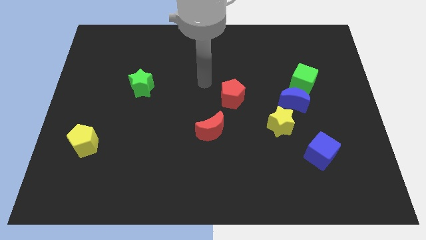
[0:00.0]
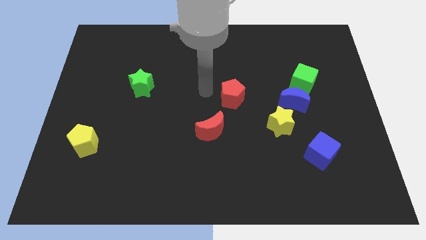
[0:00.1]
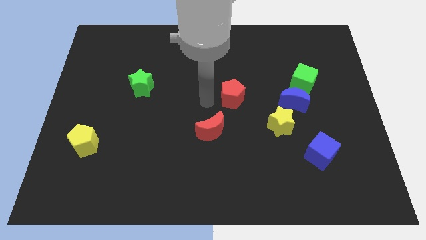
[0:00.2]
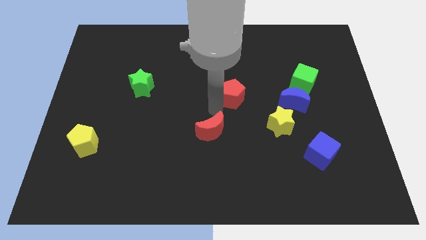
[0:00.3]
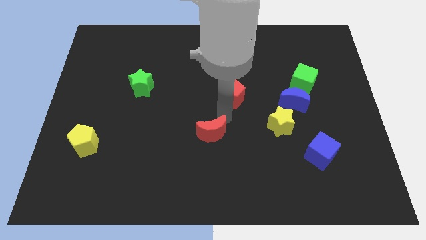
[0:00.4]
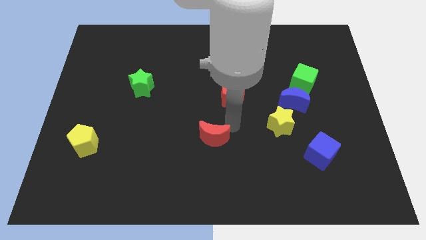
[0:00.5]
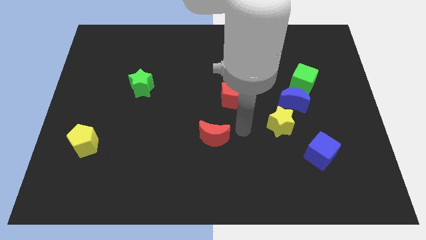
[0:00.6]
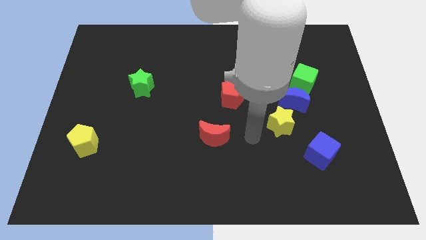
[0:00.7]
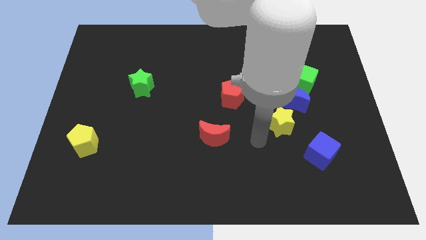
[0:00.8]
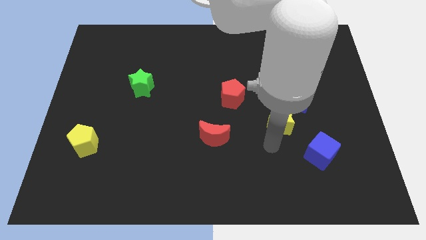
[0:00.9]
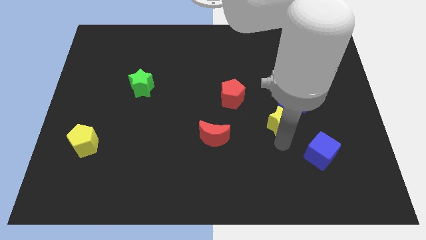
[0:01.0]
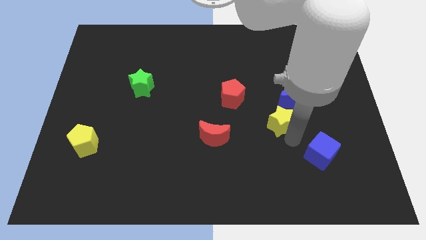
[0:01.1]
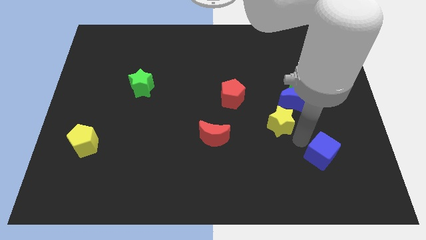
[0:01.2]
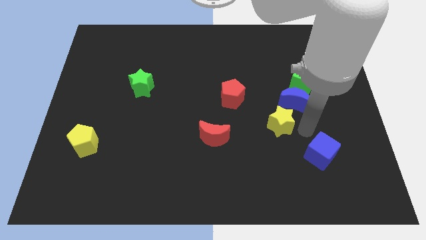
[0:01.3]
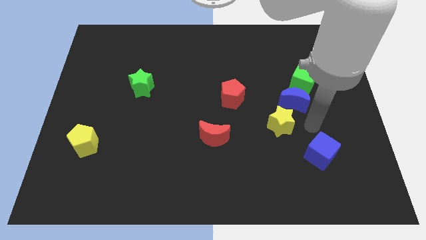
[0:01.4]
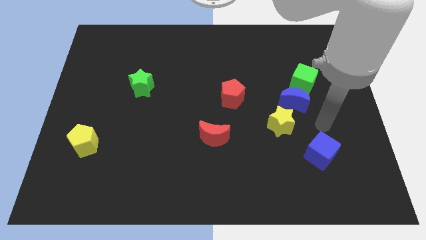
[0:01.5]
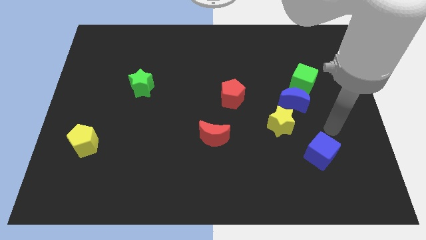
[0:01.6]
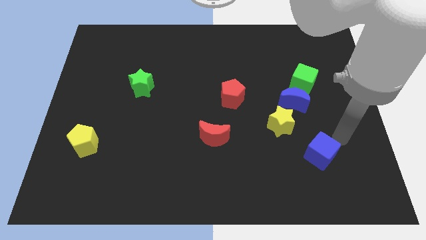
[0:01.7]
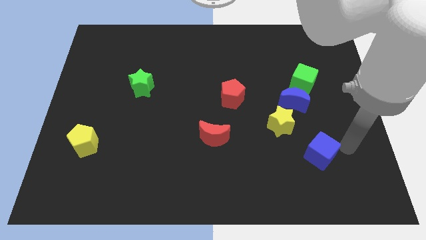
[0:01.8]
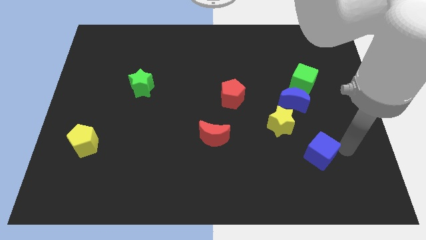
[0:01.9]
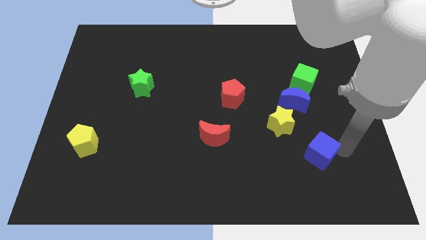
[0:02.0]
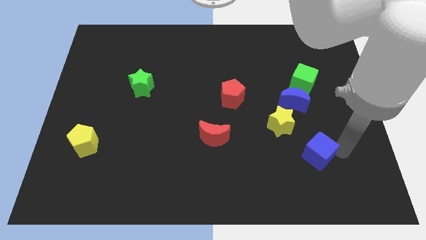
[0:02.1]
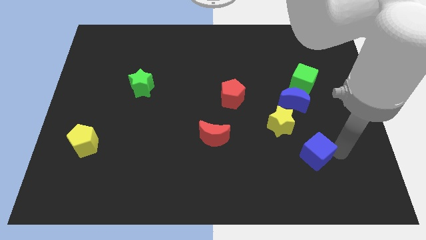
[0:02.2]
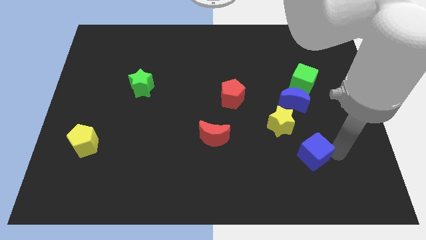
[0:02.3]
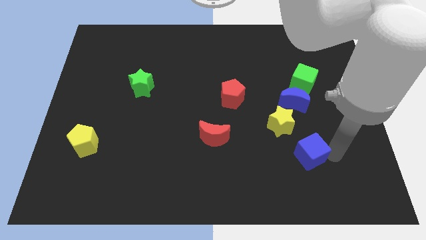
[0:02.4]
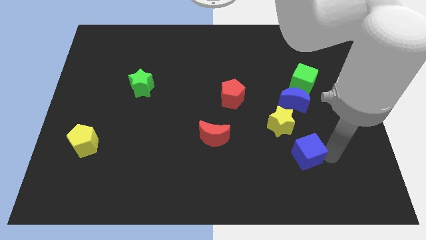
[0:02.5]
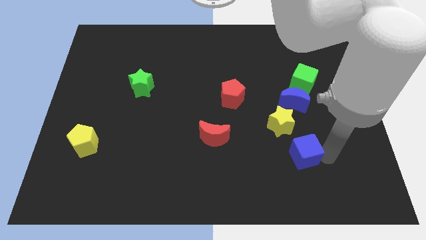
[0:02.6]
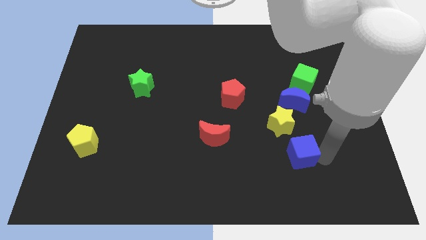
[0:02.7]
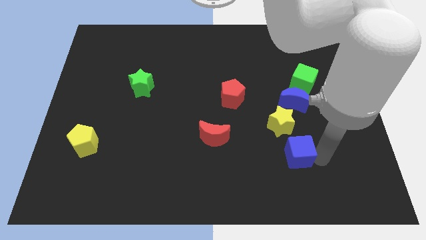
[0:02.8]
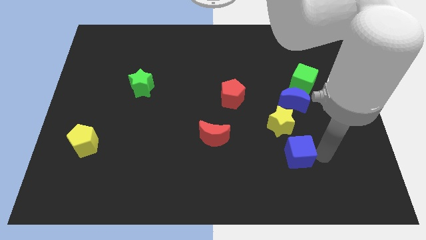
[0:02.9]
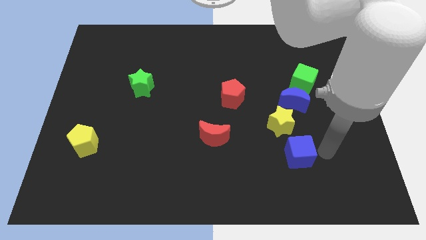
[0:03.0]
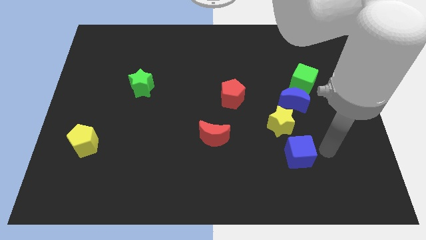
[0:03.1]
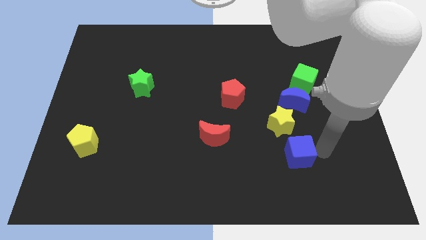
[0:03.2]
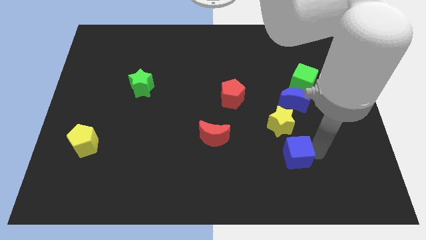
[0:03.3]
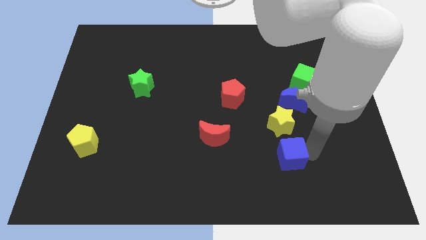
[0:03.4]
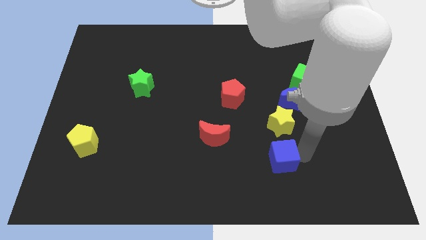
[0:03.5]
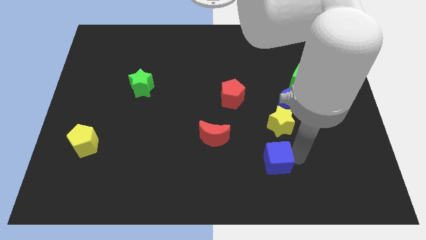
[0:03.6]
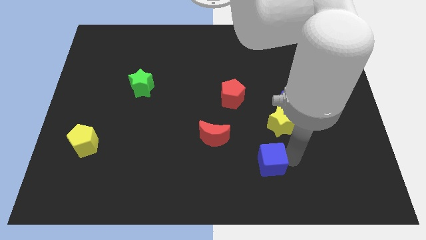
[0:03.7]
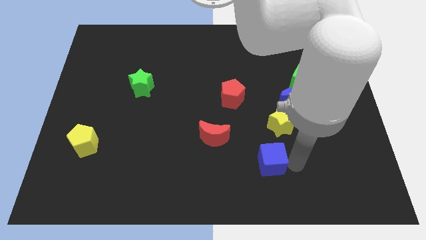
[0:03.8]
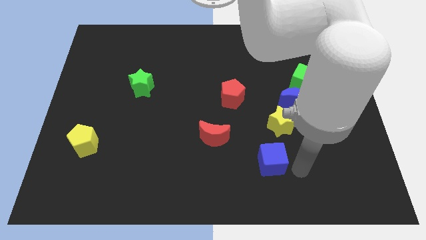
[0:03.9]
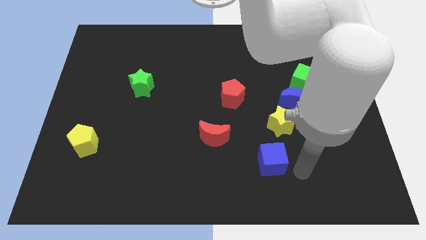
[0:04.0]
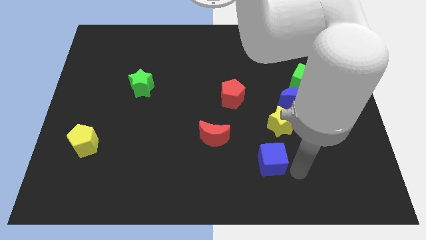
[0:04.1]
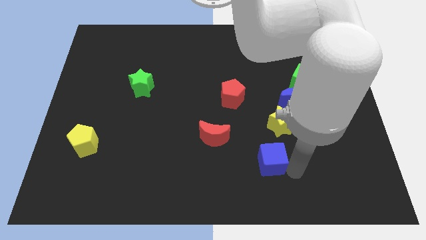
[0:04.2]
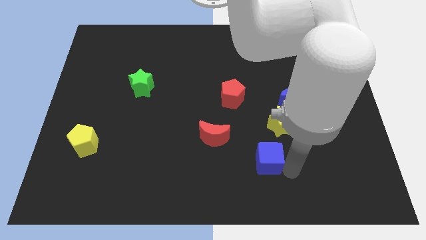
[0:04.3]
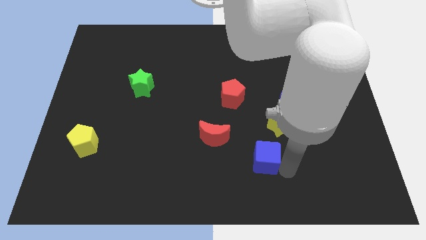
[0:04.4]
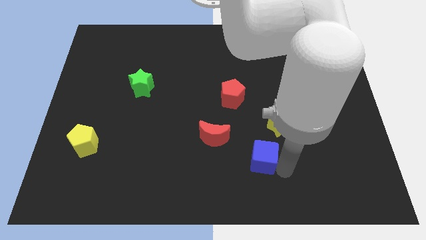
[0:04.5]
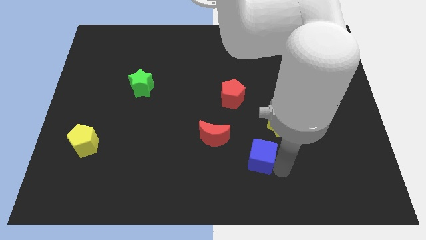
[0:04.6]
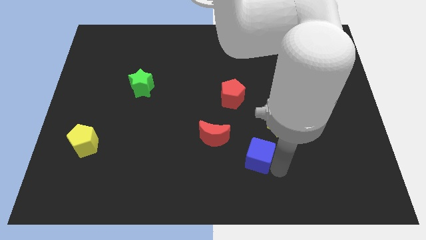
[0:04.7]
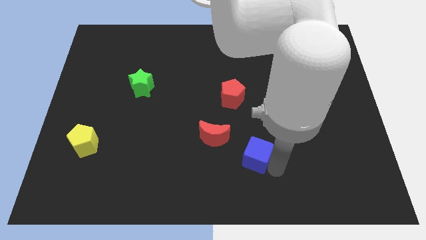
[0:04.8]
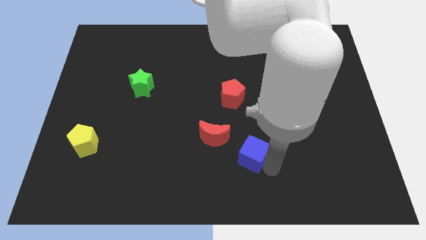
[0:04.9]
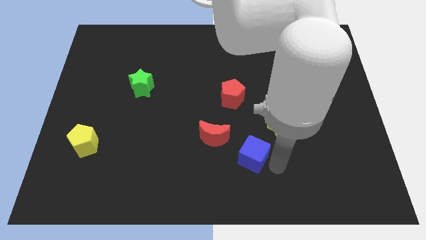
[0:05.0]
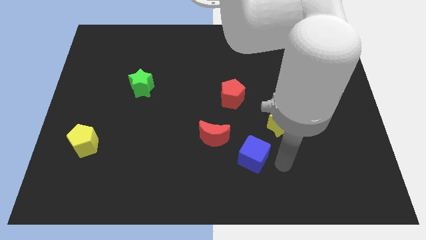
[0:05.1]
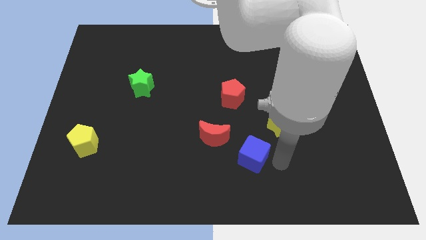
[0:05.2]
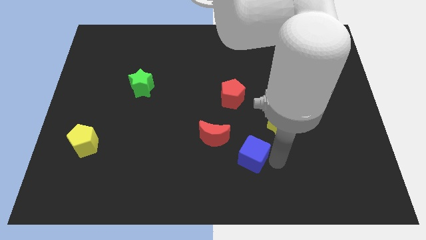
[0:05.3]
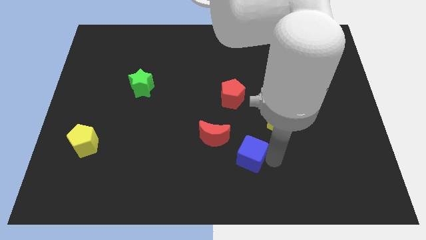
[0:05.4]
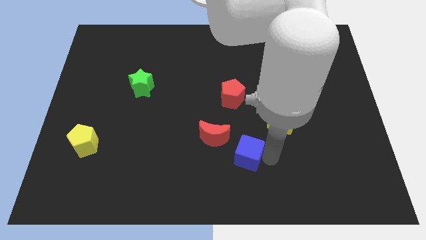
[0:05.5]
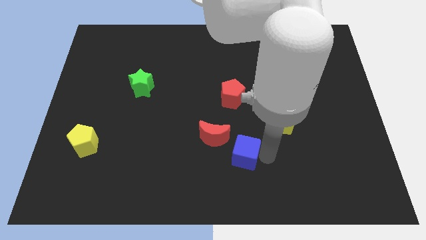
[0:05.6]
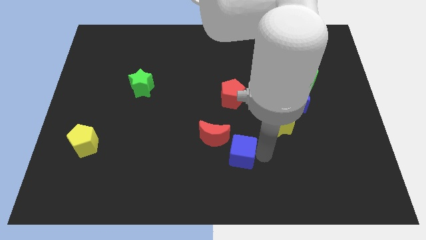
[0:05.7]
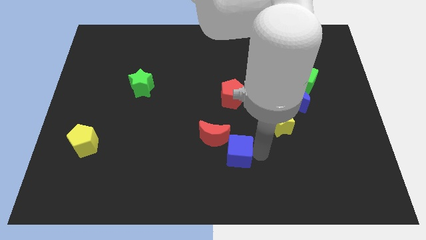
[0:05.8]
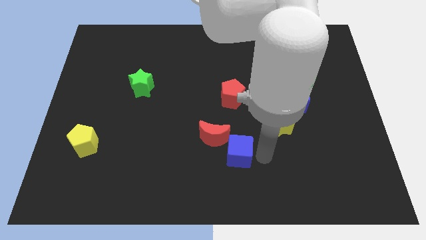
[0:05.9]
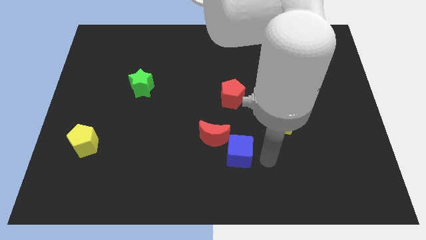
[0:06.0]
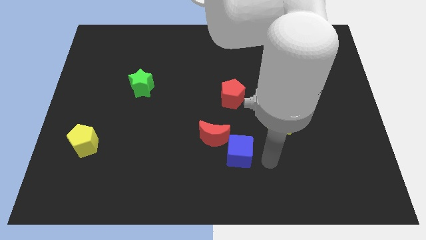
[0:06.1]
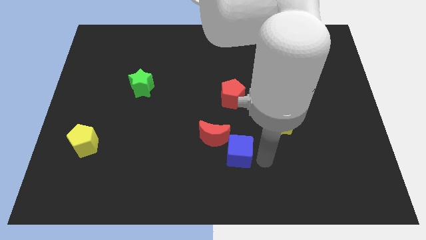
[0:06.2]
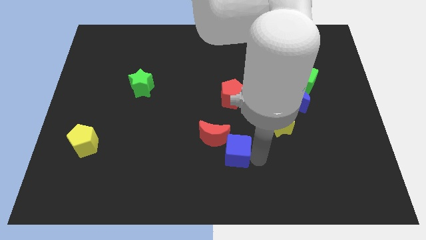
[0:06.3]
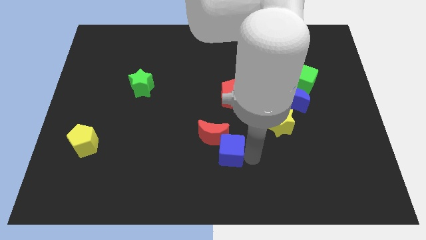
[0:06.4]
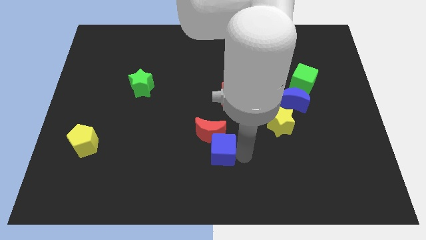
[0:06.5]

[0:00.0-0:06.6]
move the blue cube left

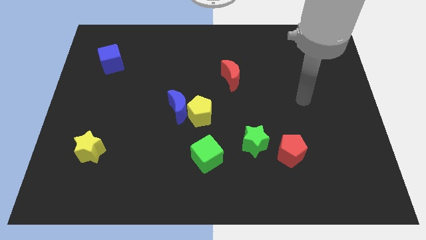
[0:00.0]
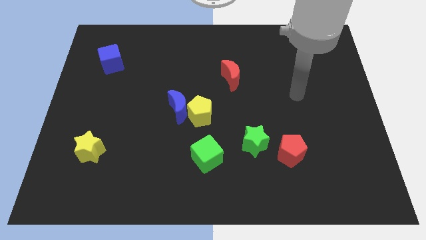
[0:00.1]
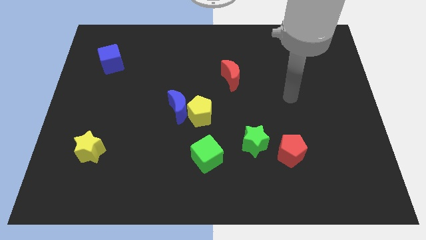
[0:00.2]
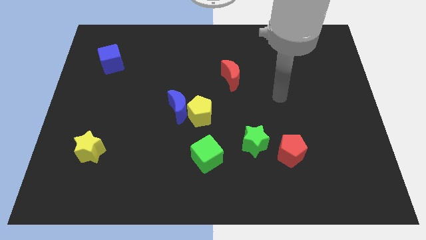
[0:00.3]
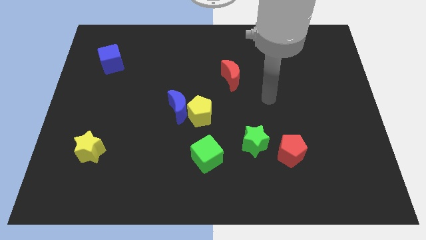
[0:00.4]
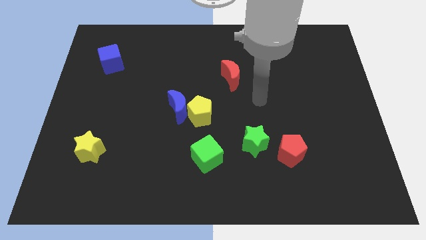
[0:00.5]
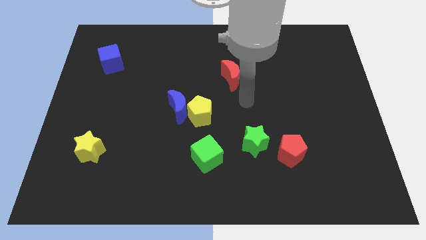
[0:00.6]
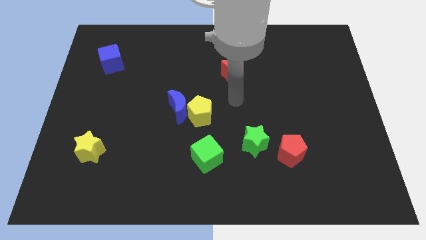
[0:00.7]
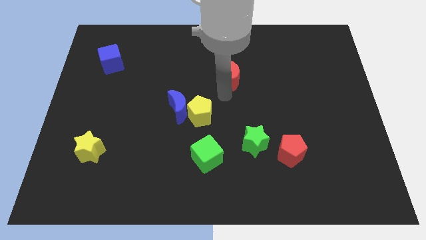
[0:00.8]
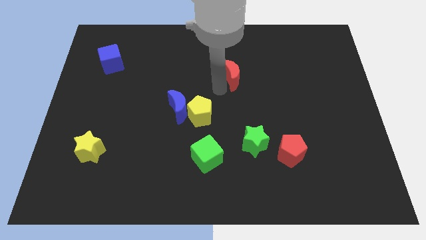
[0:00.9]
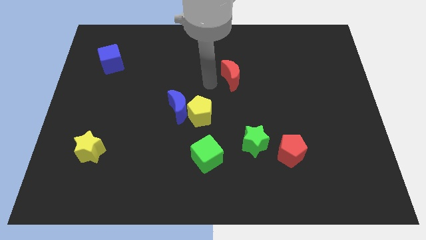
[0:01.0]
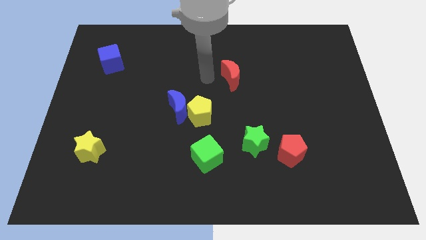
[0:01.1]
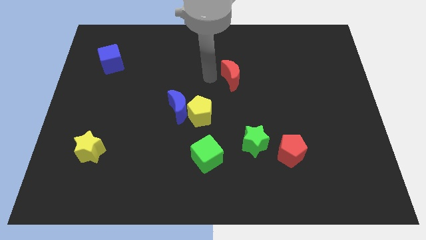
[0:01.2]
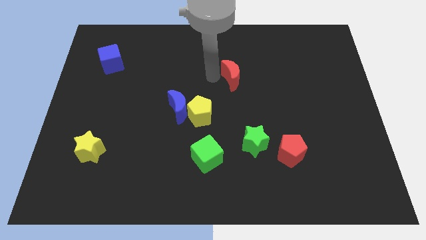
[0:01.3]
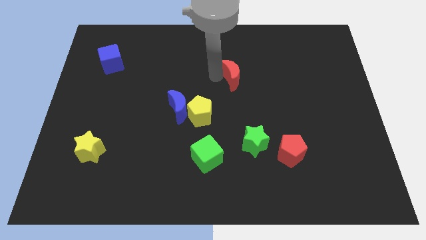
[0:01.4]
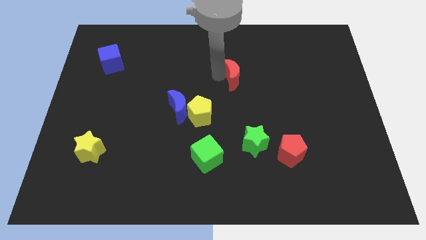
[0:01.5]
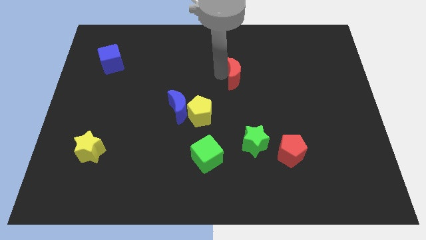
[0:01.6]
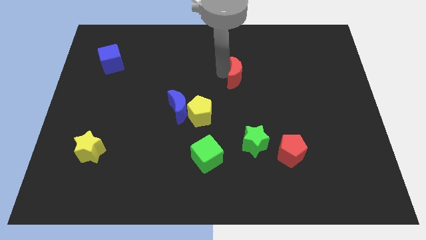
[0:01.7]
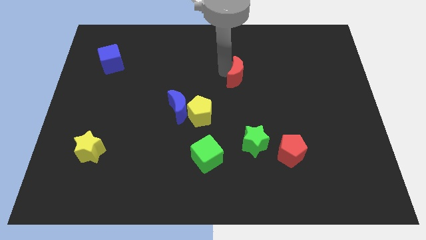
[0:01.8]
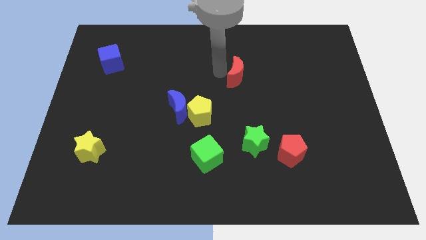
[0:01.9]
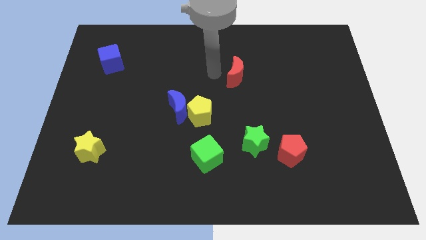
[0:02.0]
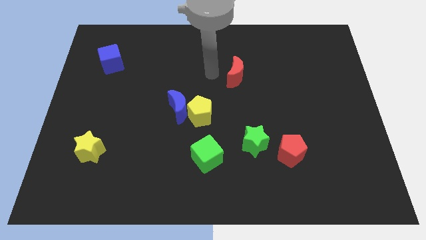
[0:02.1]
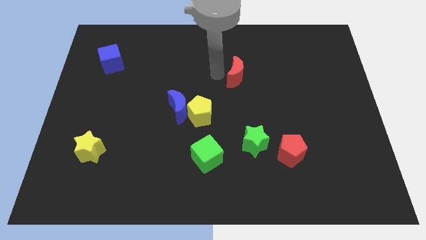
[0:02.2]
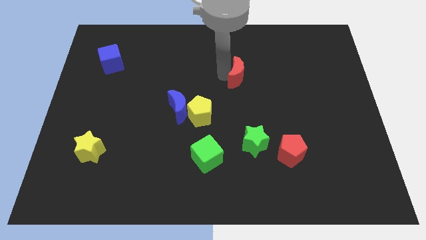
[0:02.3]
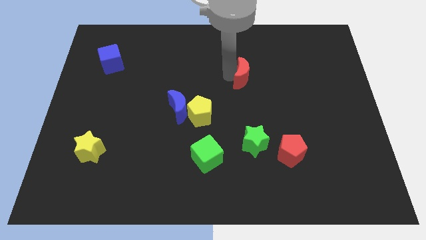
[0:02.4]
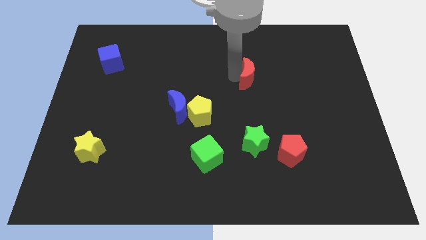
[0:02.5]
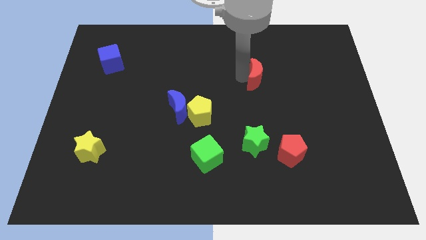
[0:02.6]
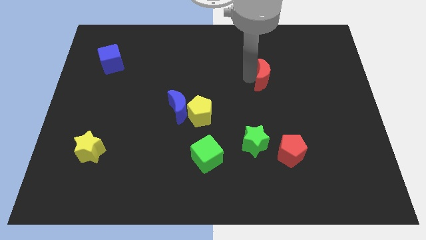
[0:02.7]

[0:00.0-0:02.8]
push the red moon to the right slightly
